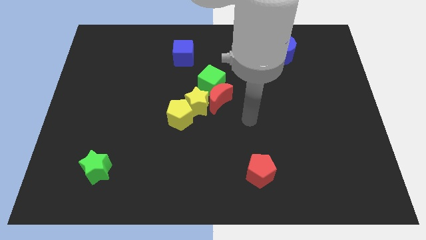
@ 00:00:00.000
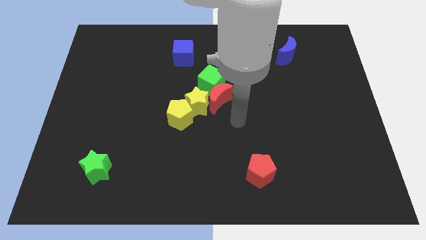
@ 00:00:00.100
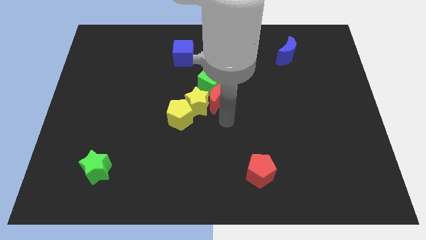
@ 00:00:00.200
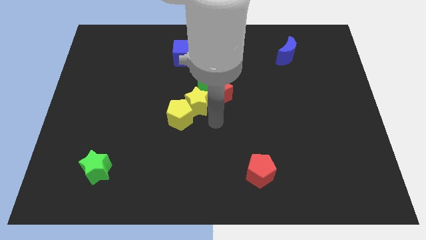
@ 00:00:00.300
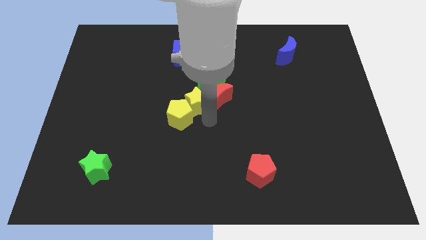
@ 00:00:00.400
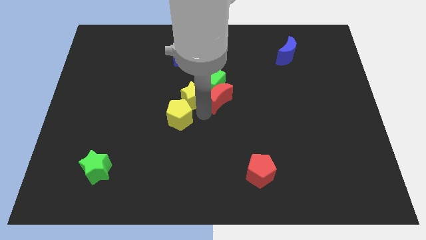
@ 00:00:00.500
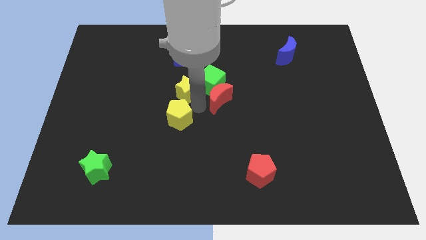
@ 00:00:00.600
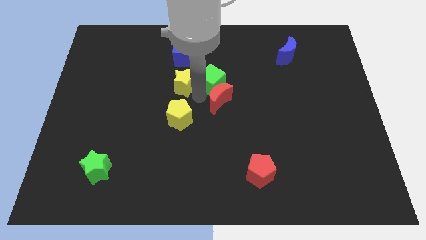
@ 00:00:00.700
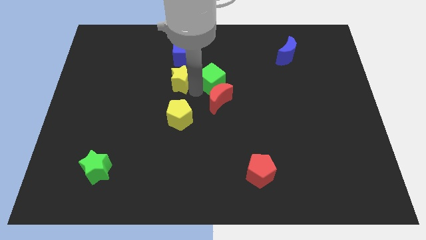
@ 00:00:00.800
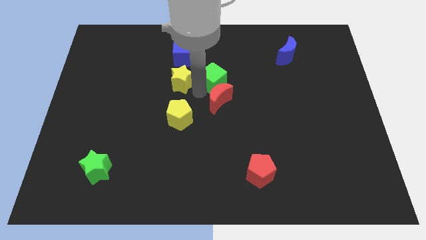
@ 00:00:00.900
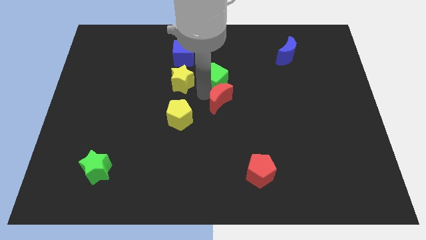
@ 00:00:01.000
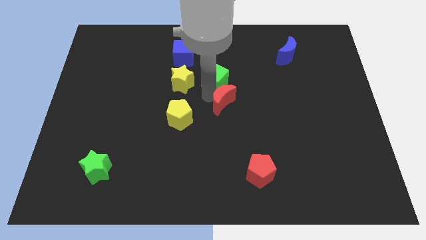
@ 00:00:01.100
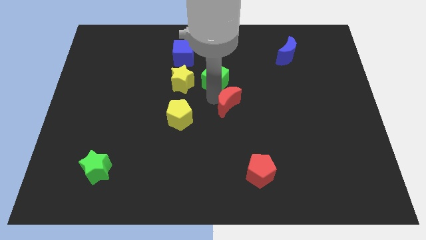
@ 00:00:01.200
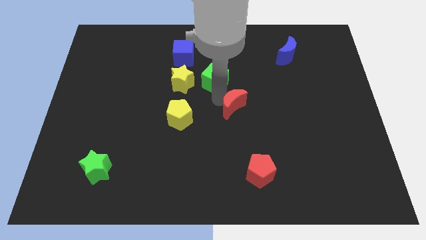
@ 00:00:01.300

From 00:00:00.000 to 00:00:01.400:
separate the red moon from the yellow star and green cube

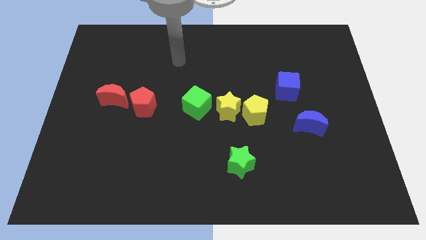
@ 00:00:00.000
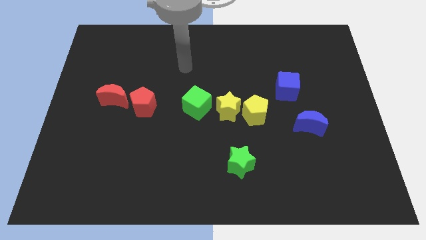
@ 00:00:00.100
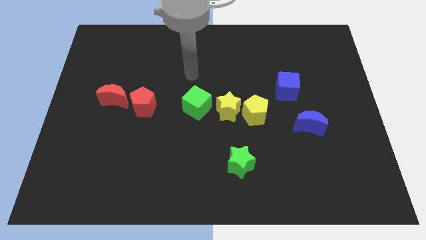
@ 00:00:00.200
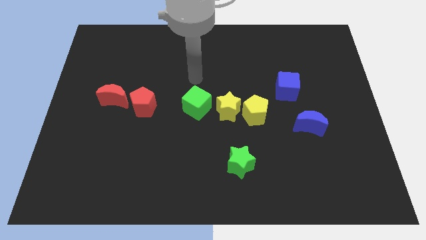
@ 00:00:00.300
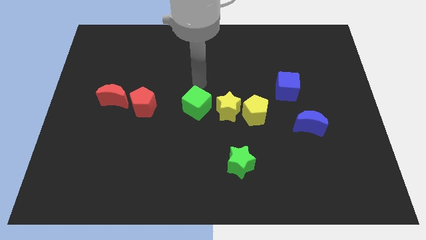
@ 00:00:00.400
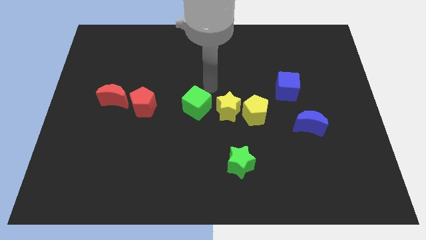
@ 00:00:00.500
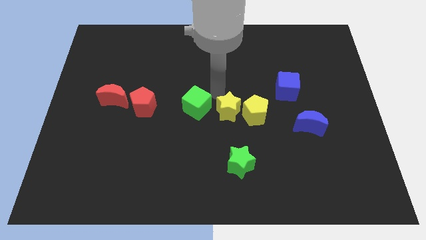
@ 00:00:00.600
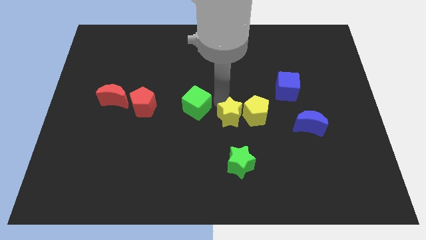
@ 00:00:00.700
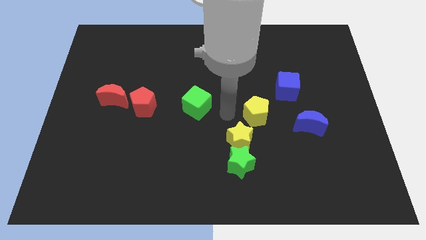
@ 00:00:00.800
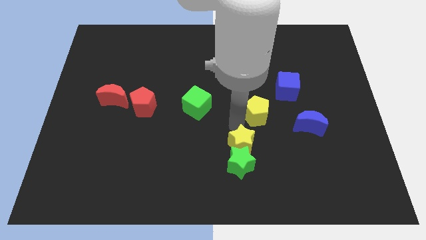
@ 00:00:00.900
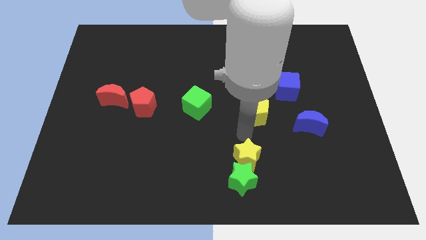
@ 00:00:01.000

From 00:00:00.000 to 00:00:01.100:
pull the yellow pentagon apart from the yellow star

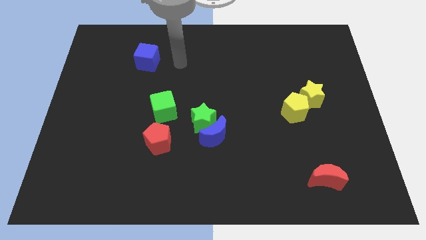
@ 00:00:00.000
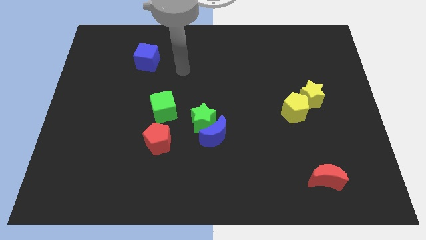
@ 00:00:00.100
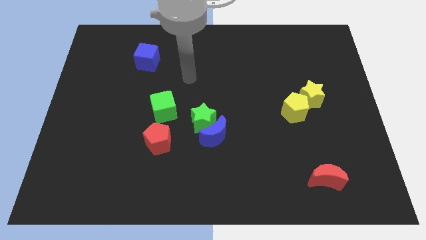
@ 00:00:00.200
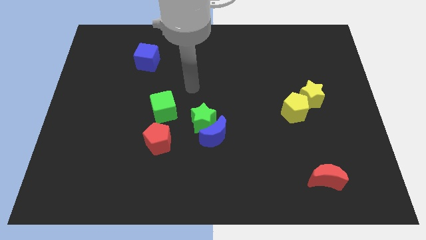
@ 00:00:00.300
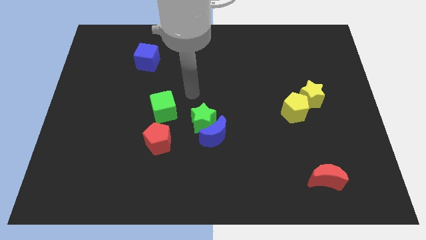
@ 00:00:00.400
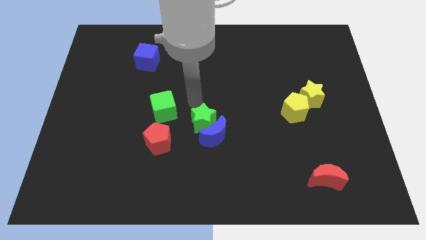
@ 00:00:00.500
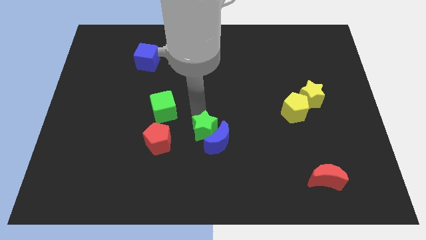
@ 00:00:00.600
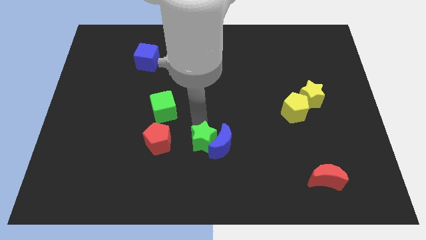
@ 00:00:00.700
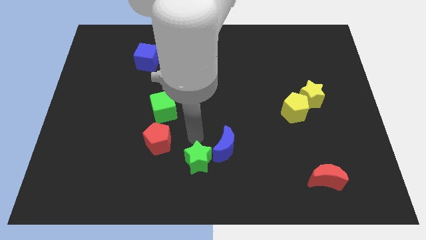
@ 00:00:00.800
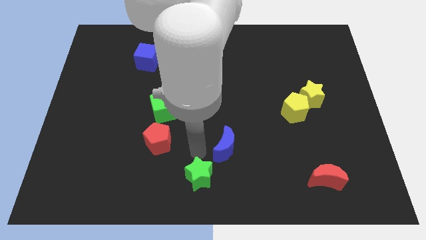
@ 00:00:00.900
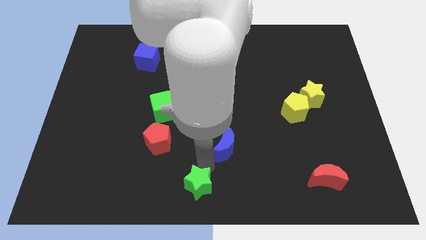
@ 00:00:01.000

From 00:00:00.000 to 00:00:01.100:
separate the blue moon from the green star

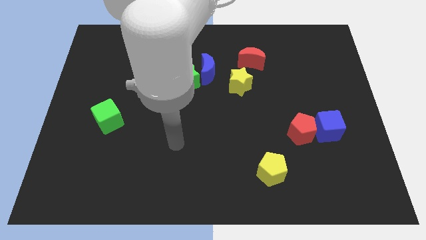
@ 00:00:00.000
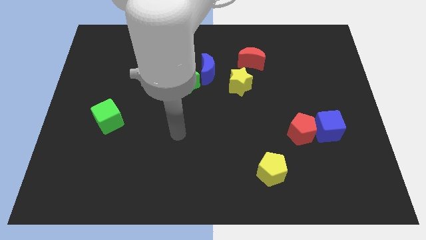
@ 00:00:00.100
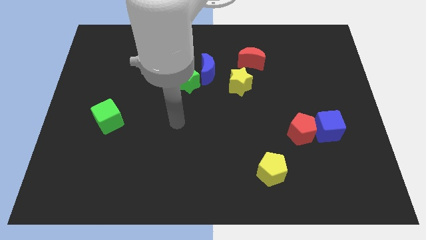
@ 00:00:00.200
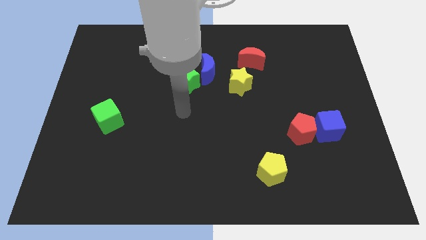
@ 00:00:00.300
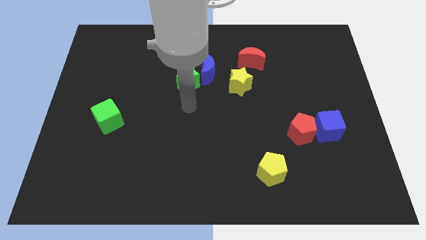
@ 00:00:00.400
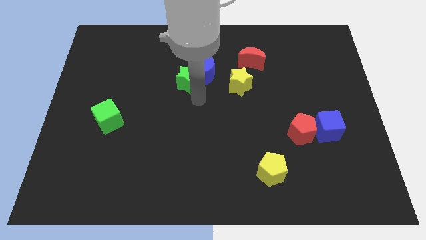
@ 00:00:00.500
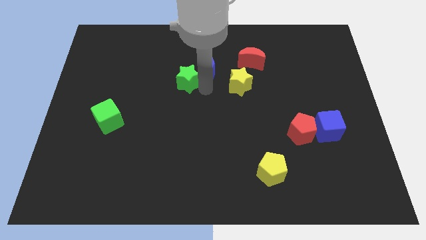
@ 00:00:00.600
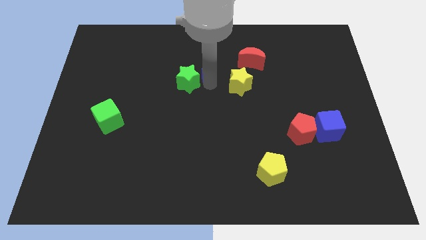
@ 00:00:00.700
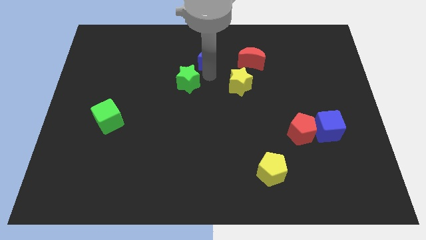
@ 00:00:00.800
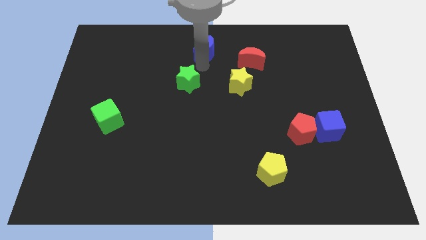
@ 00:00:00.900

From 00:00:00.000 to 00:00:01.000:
move the green star away from the blue moon

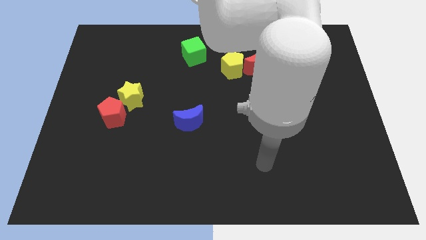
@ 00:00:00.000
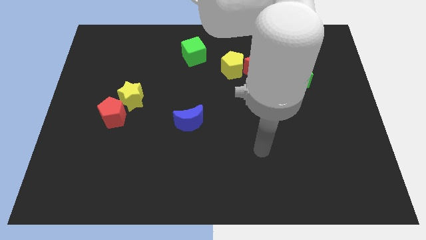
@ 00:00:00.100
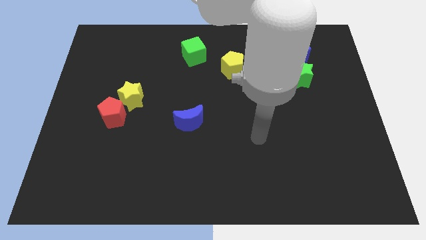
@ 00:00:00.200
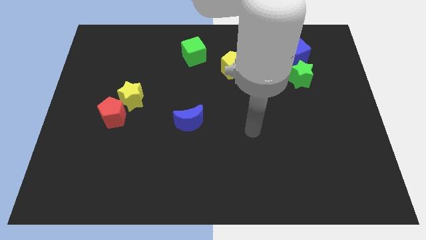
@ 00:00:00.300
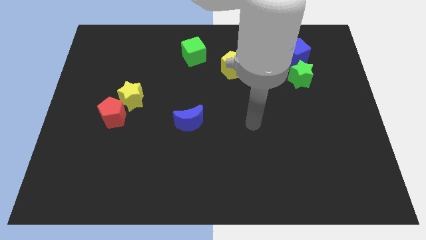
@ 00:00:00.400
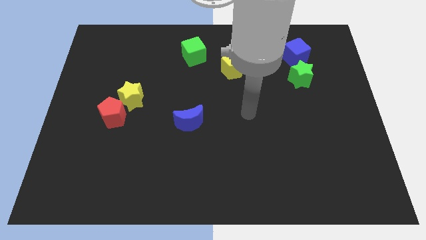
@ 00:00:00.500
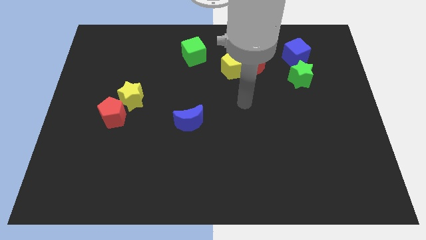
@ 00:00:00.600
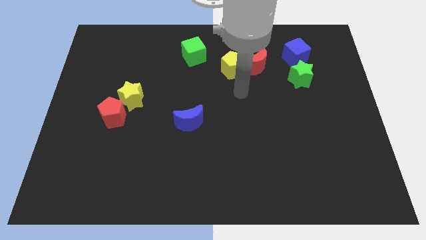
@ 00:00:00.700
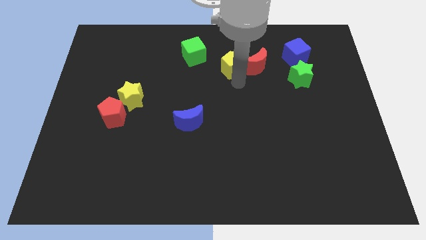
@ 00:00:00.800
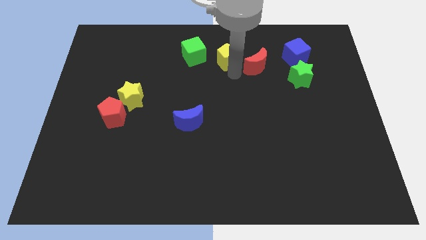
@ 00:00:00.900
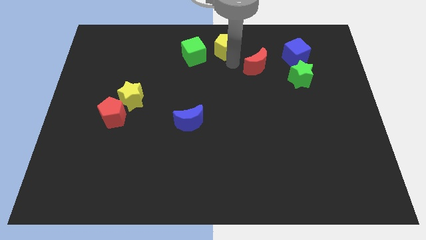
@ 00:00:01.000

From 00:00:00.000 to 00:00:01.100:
move the red moon away from the yellow pentagon

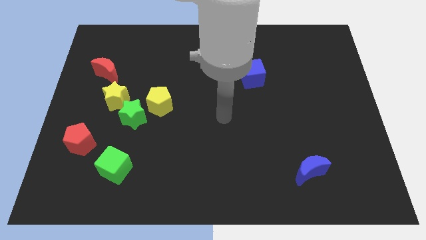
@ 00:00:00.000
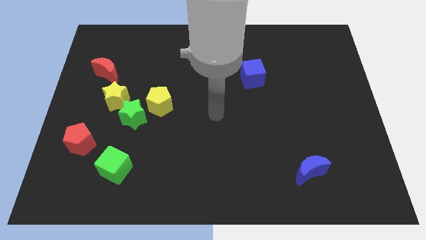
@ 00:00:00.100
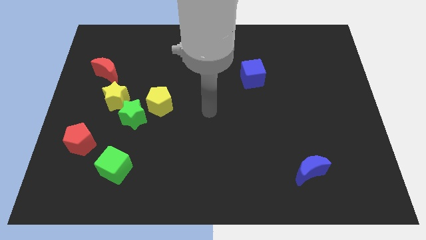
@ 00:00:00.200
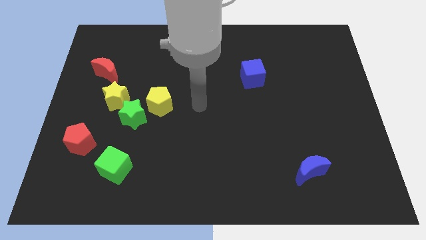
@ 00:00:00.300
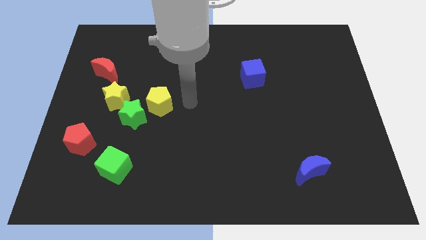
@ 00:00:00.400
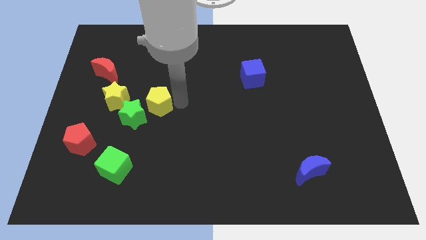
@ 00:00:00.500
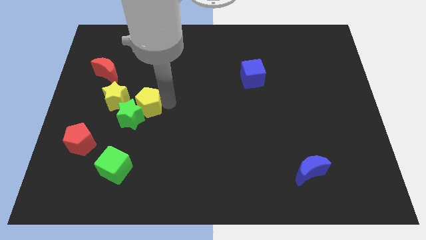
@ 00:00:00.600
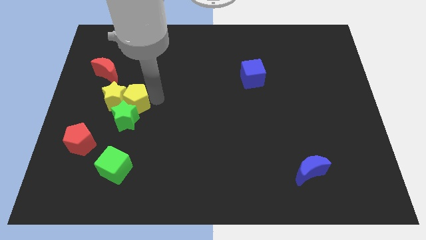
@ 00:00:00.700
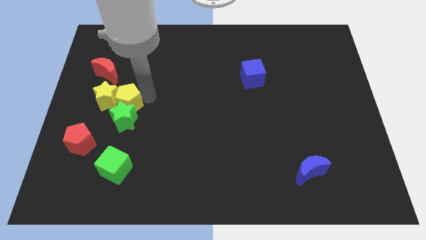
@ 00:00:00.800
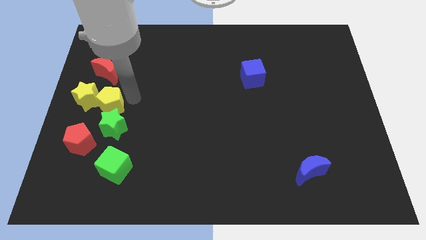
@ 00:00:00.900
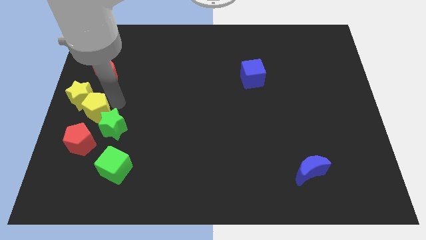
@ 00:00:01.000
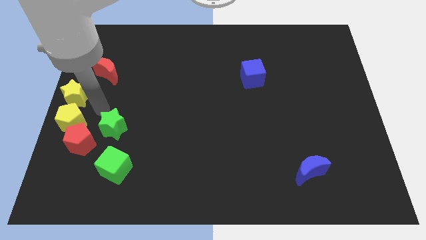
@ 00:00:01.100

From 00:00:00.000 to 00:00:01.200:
move the green star away from the yellow star and yellow pentagon

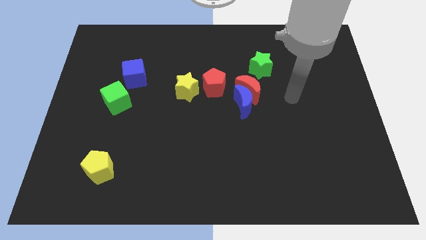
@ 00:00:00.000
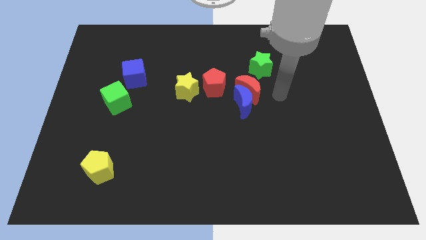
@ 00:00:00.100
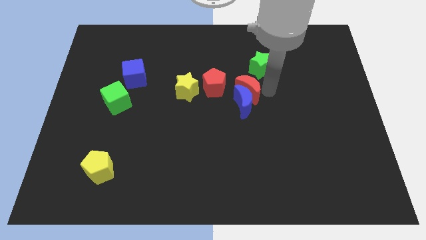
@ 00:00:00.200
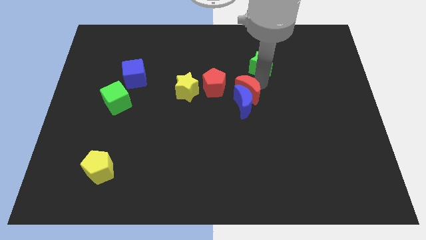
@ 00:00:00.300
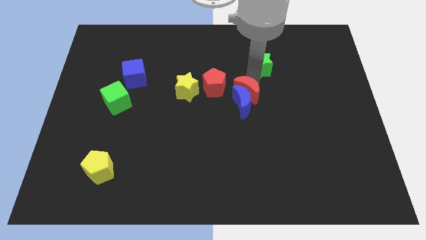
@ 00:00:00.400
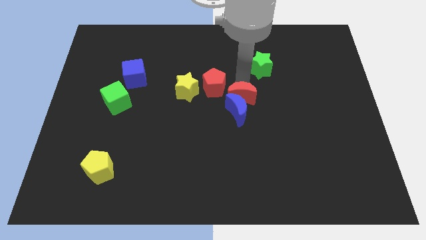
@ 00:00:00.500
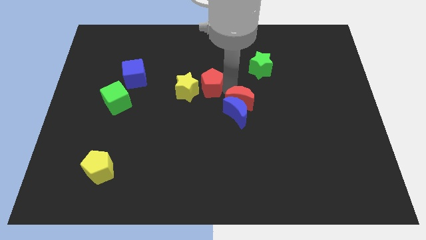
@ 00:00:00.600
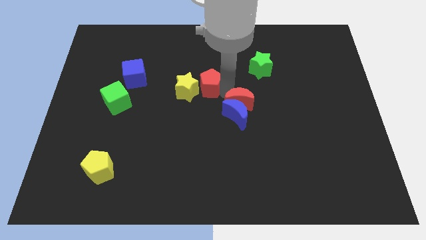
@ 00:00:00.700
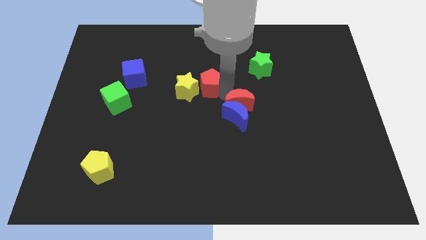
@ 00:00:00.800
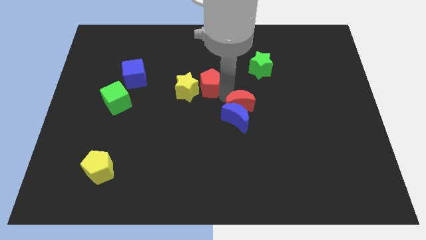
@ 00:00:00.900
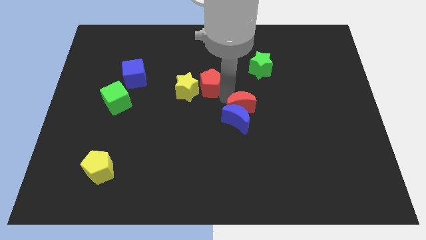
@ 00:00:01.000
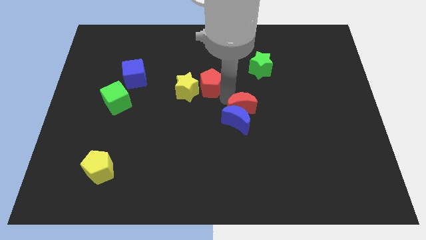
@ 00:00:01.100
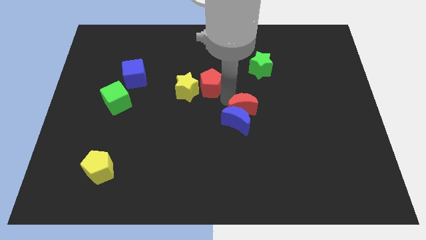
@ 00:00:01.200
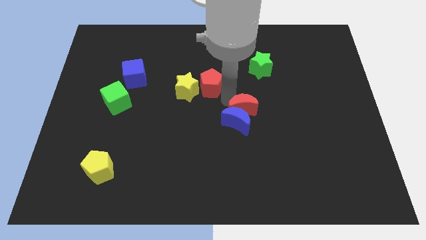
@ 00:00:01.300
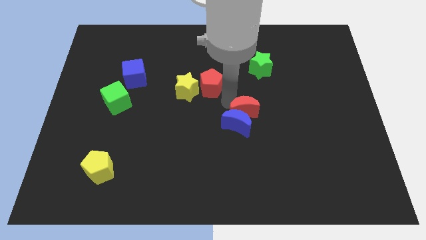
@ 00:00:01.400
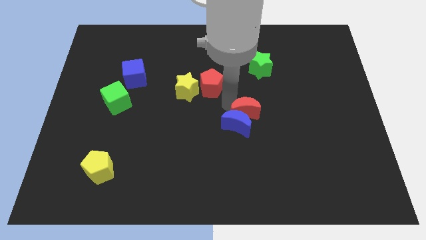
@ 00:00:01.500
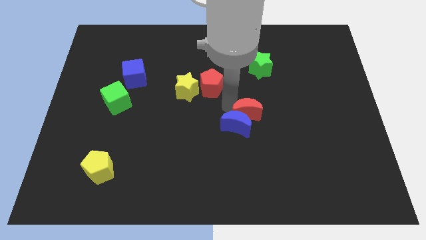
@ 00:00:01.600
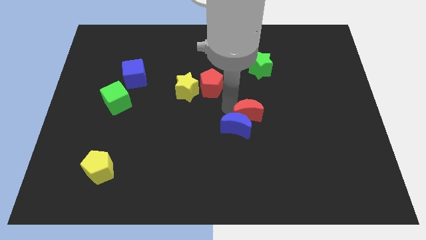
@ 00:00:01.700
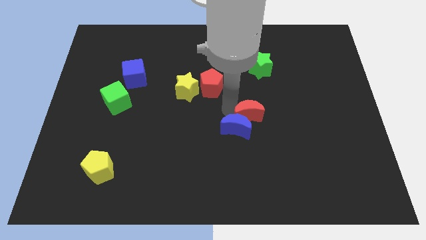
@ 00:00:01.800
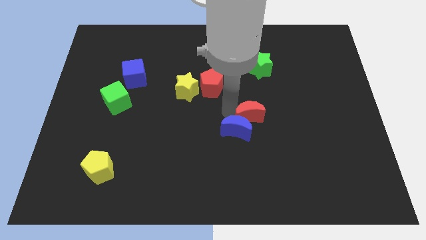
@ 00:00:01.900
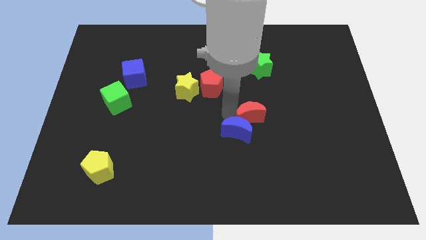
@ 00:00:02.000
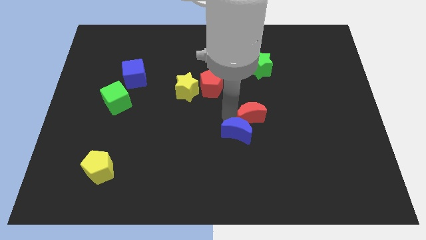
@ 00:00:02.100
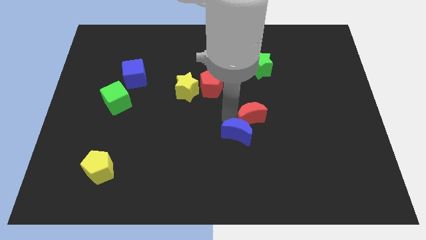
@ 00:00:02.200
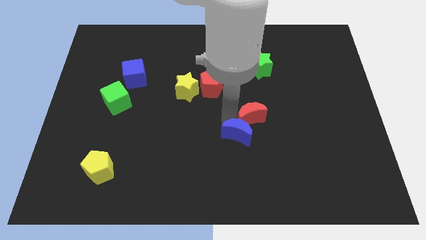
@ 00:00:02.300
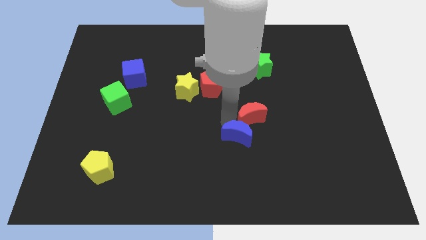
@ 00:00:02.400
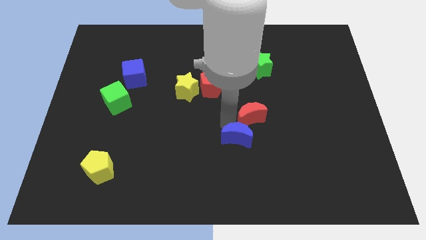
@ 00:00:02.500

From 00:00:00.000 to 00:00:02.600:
move the blue moon away from the red moon and red pentagon
